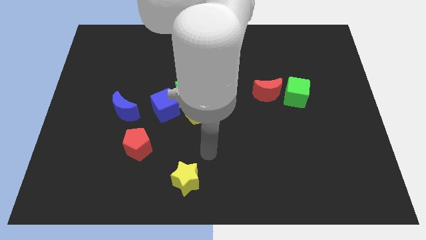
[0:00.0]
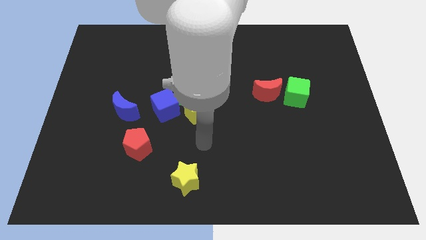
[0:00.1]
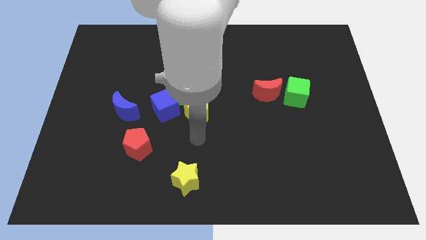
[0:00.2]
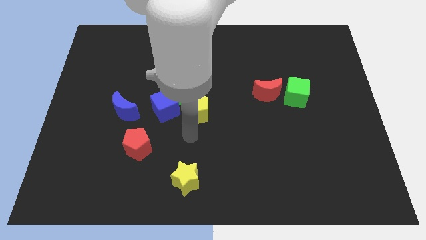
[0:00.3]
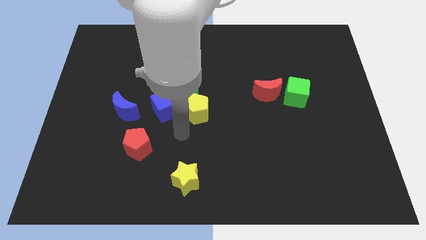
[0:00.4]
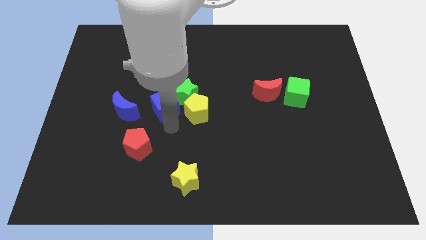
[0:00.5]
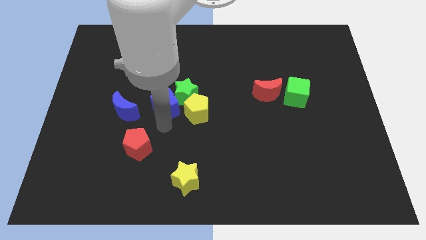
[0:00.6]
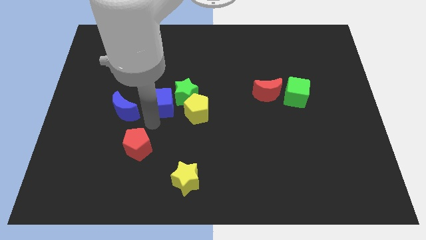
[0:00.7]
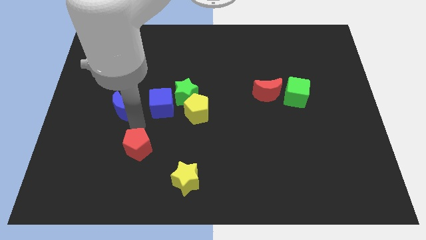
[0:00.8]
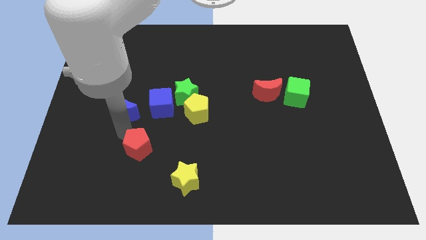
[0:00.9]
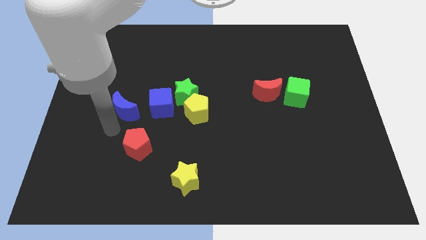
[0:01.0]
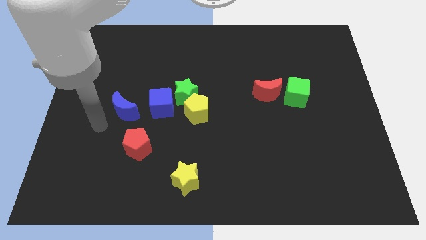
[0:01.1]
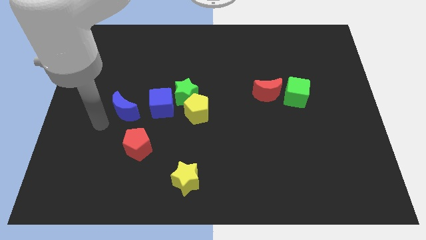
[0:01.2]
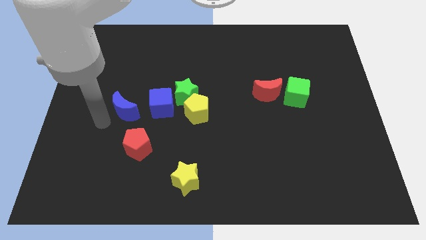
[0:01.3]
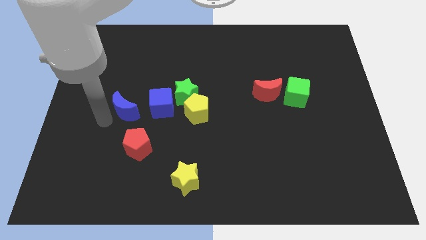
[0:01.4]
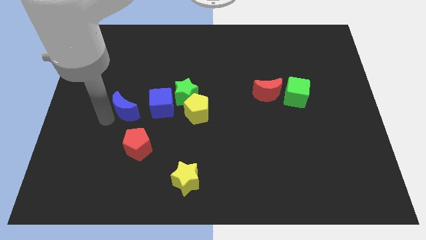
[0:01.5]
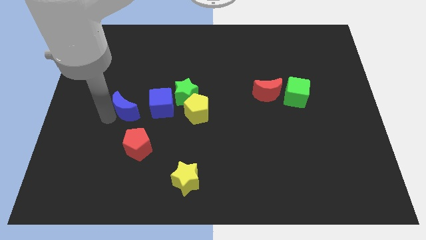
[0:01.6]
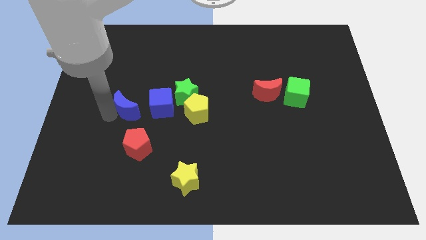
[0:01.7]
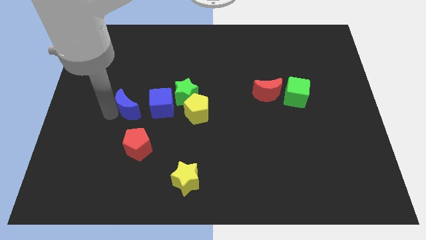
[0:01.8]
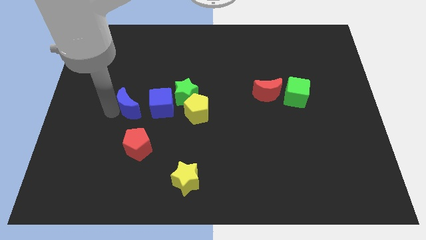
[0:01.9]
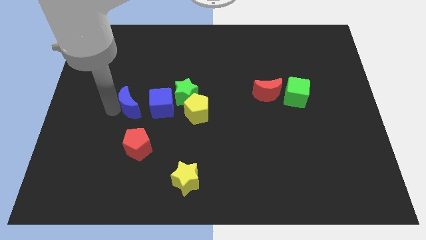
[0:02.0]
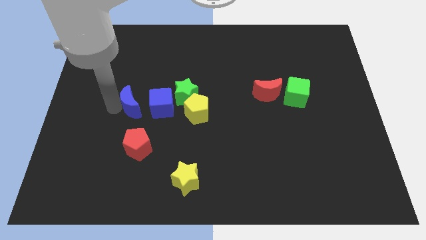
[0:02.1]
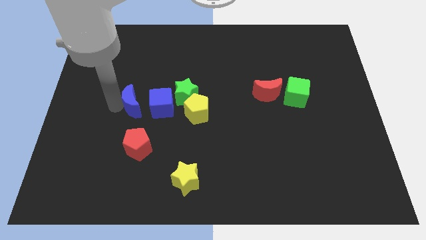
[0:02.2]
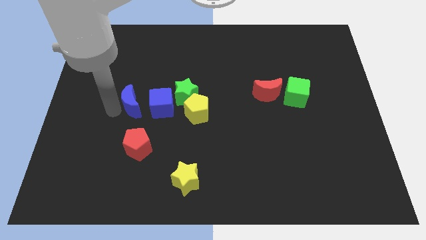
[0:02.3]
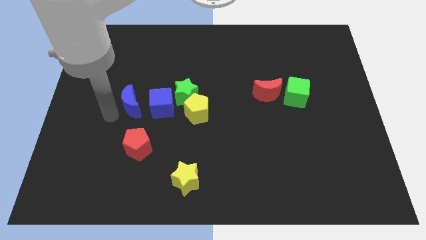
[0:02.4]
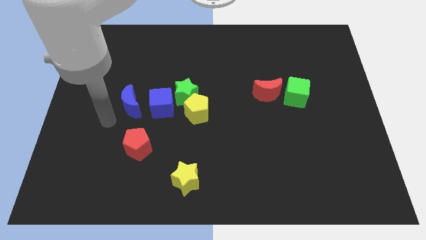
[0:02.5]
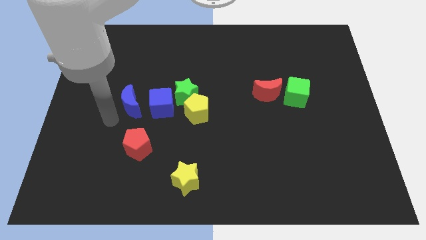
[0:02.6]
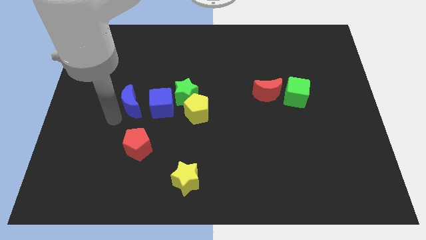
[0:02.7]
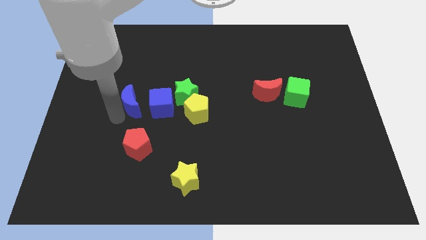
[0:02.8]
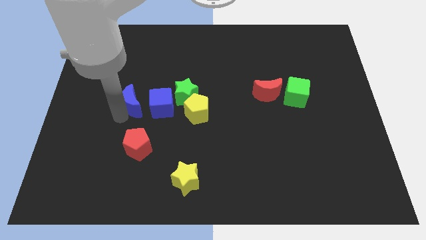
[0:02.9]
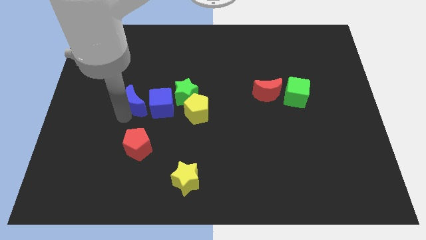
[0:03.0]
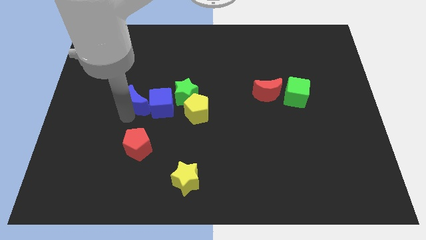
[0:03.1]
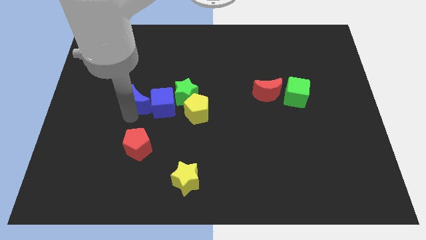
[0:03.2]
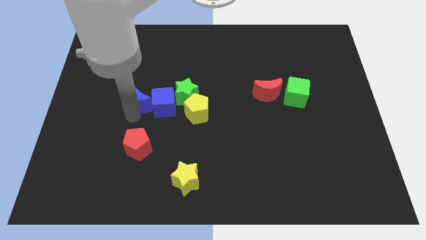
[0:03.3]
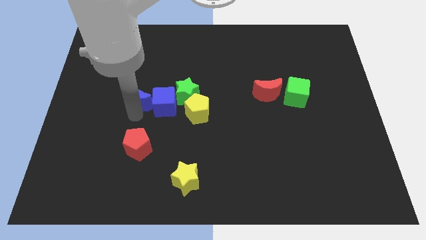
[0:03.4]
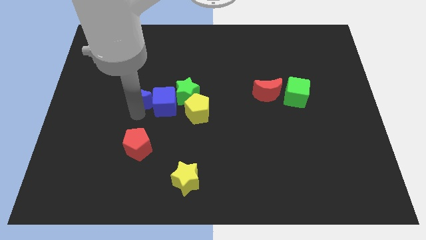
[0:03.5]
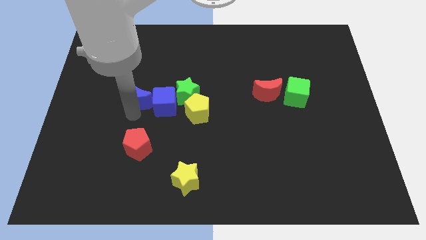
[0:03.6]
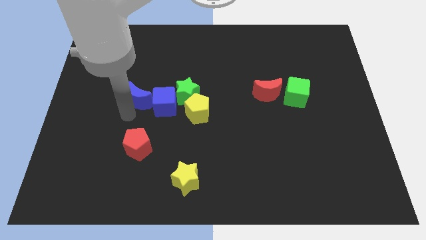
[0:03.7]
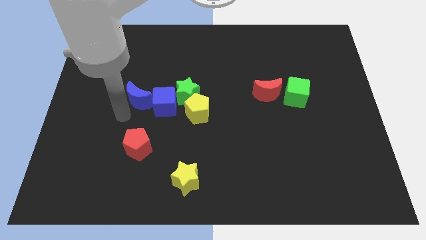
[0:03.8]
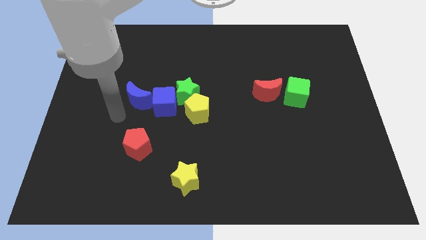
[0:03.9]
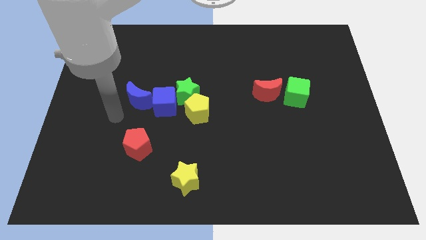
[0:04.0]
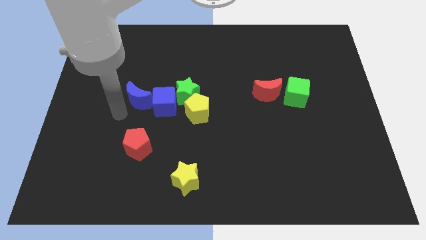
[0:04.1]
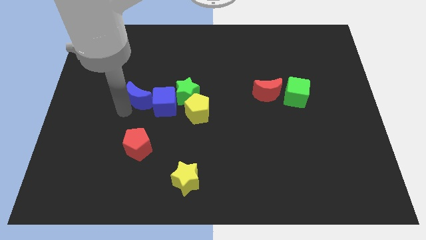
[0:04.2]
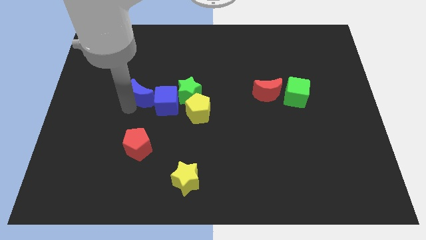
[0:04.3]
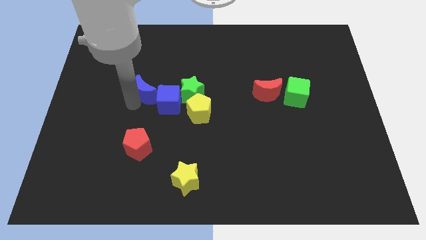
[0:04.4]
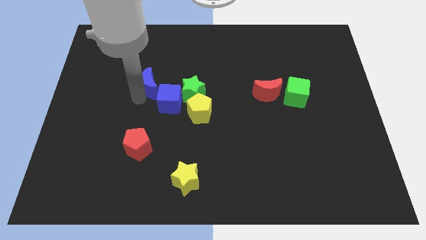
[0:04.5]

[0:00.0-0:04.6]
slightly push the blue moon upwards and right

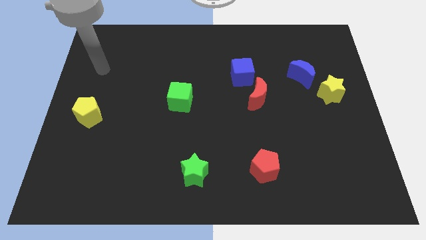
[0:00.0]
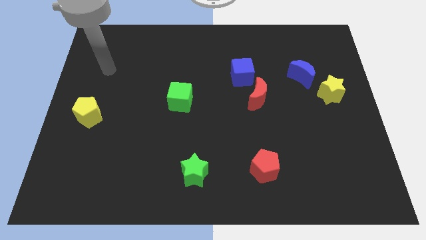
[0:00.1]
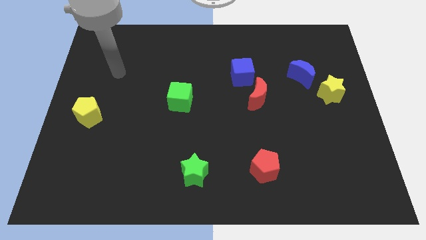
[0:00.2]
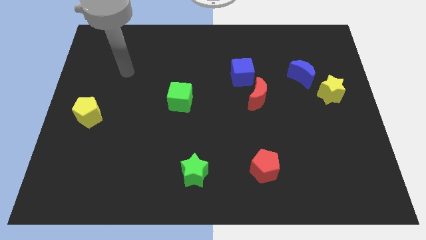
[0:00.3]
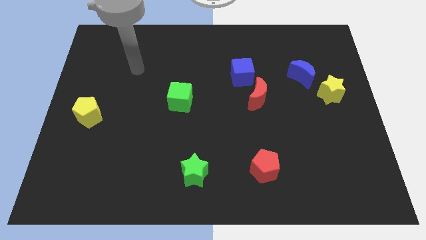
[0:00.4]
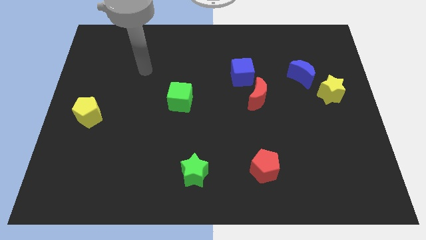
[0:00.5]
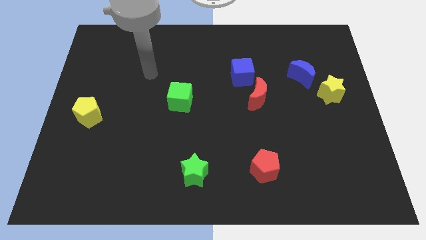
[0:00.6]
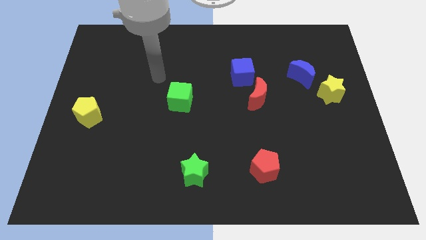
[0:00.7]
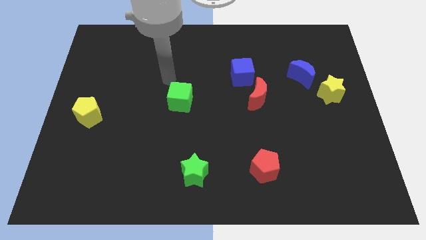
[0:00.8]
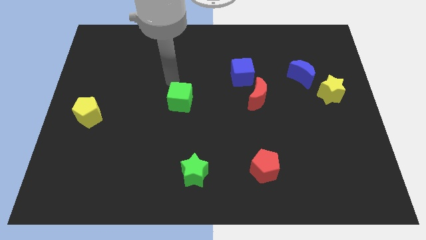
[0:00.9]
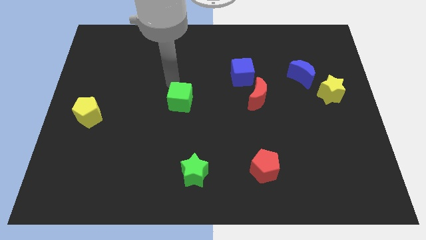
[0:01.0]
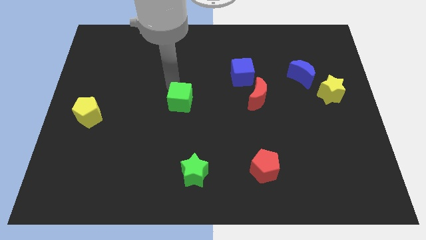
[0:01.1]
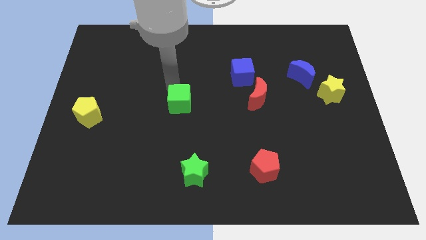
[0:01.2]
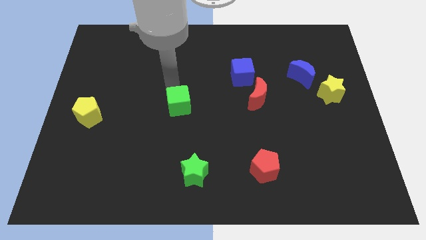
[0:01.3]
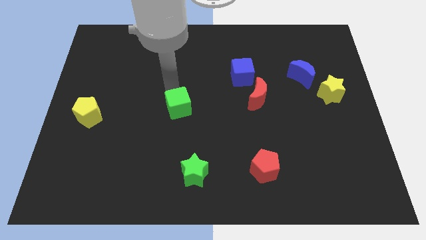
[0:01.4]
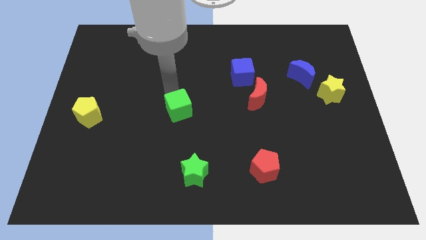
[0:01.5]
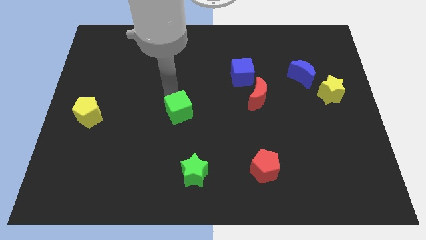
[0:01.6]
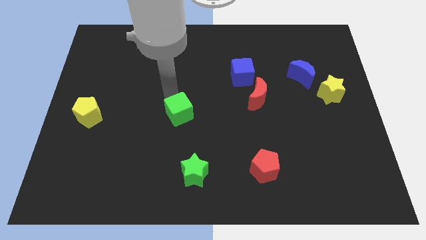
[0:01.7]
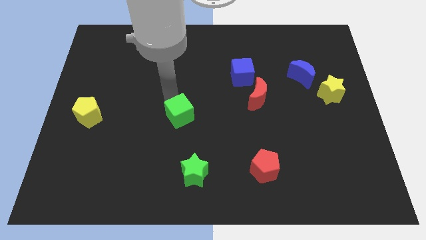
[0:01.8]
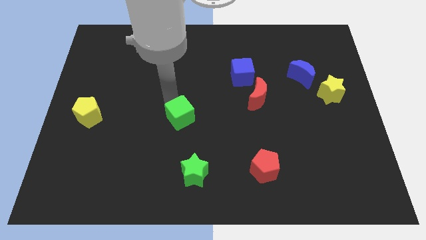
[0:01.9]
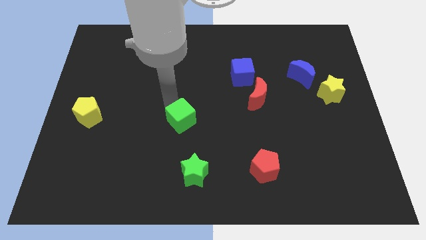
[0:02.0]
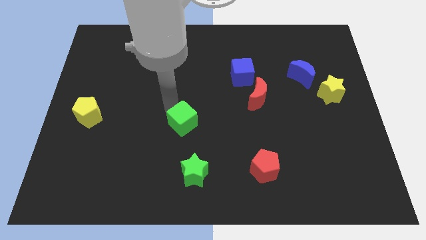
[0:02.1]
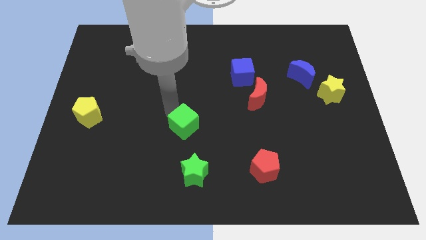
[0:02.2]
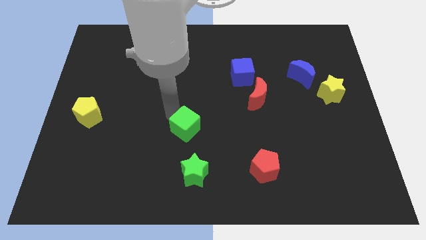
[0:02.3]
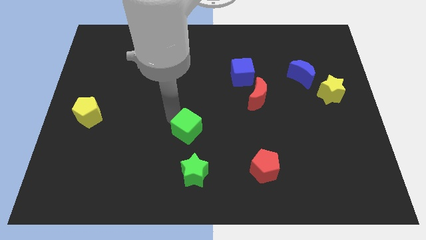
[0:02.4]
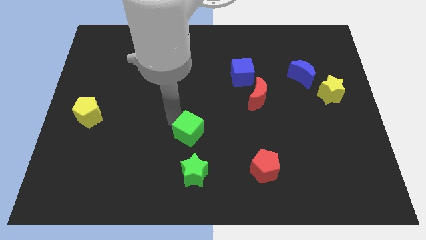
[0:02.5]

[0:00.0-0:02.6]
move the green cube slightly down and to the right

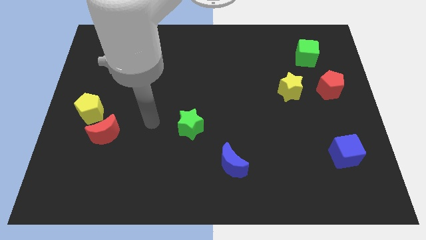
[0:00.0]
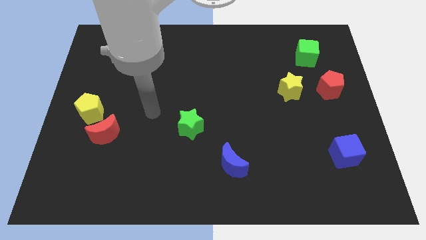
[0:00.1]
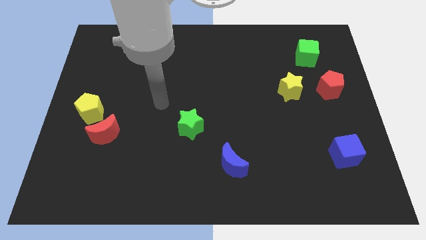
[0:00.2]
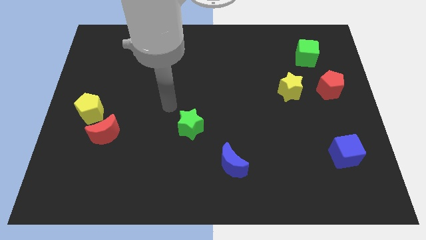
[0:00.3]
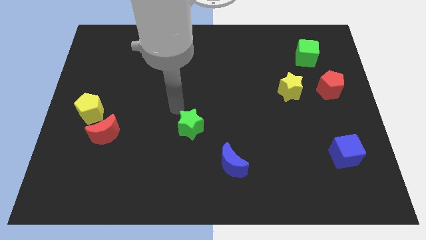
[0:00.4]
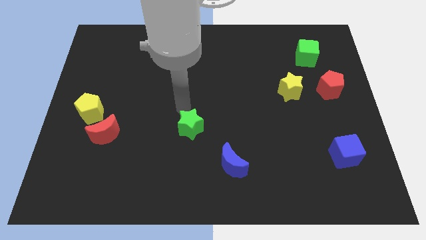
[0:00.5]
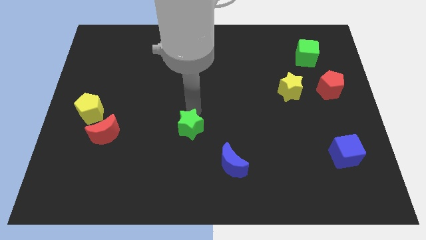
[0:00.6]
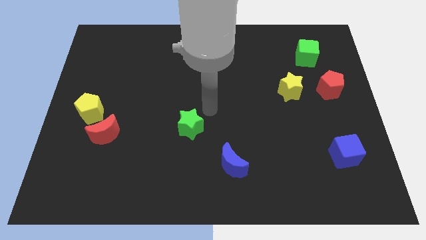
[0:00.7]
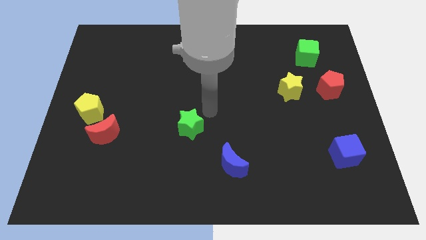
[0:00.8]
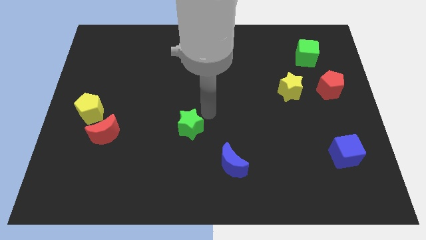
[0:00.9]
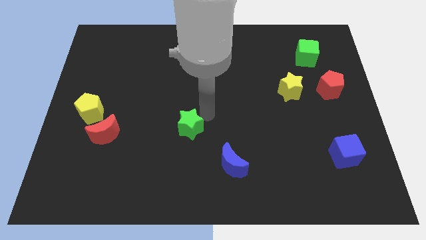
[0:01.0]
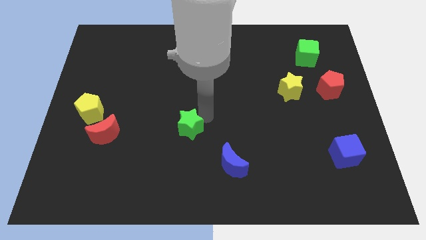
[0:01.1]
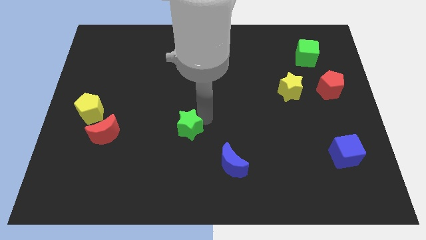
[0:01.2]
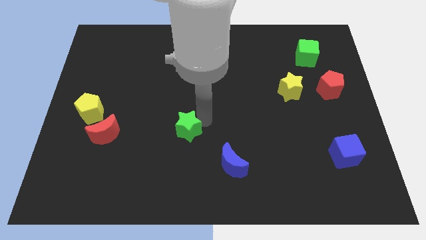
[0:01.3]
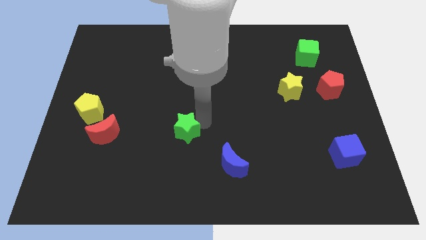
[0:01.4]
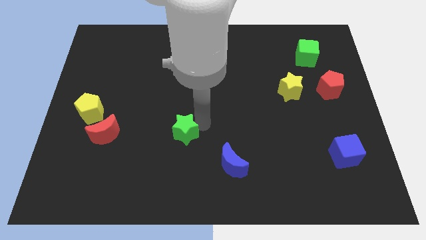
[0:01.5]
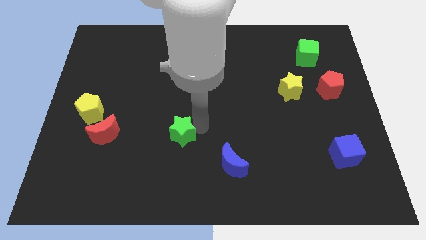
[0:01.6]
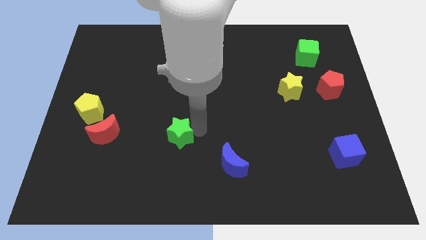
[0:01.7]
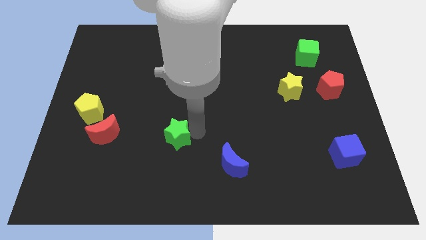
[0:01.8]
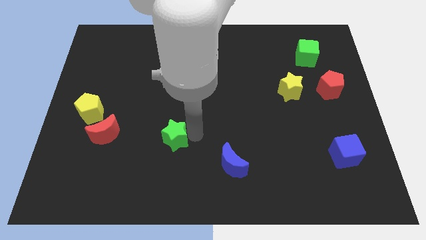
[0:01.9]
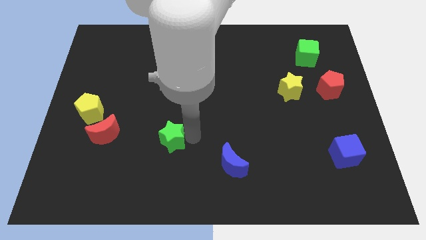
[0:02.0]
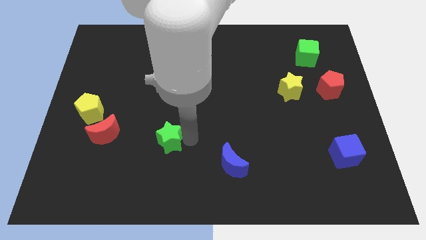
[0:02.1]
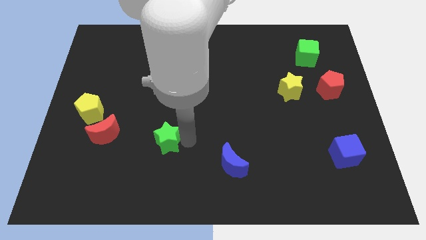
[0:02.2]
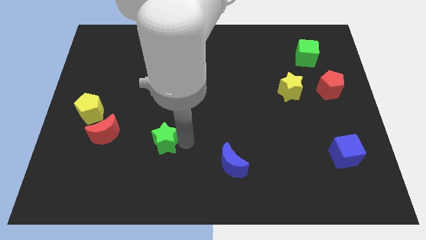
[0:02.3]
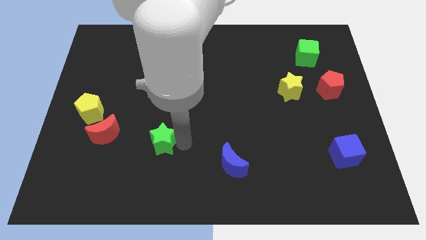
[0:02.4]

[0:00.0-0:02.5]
slightly push the green star downwards and to the left
